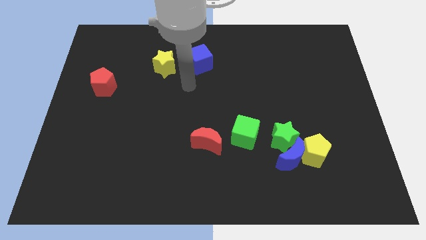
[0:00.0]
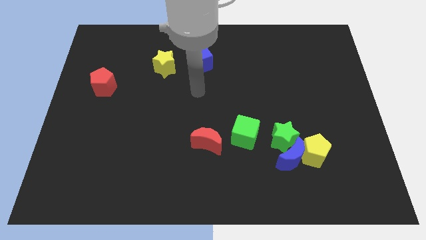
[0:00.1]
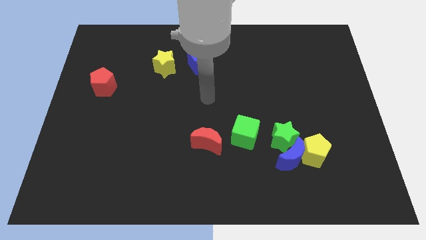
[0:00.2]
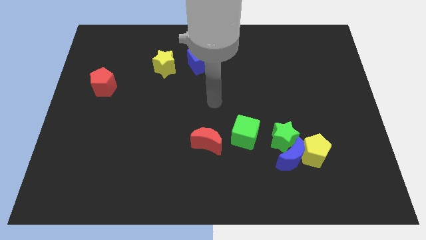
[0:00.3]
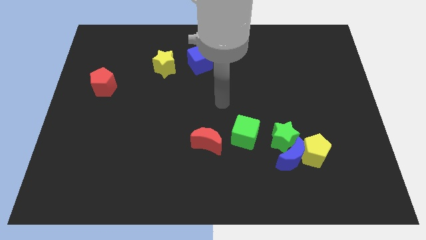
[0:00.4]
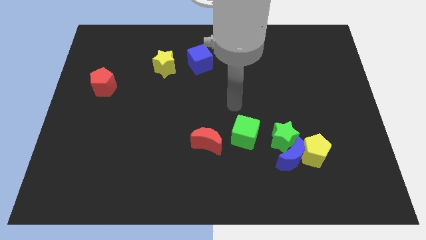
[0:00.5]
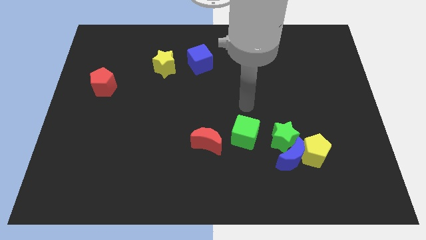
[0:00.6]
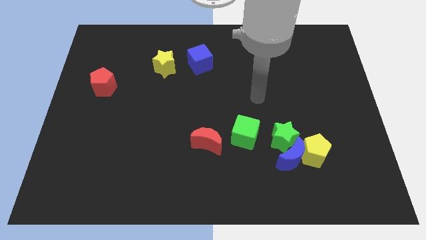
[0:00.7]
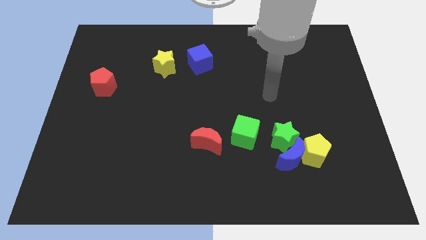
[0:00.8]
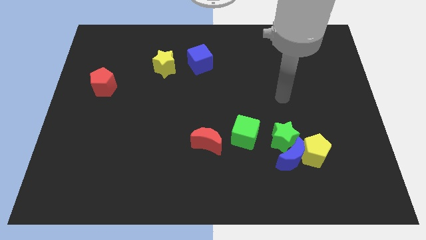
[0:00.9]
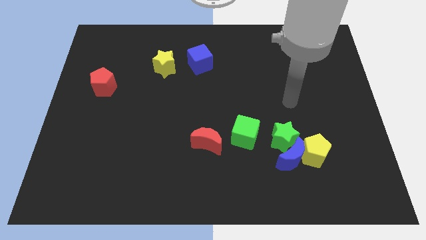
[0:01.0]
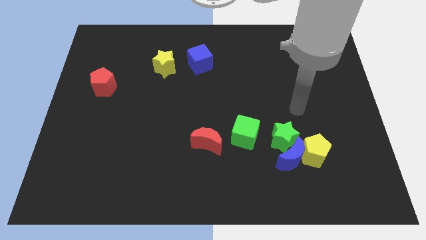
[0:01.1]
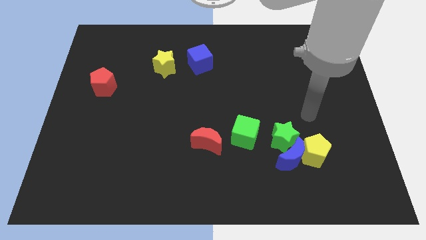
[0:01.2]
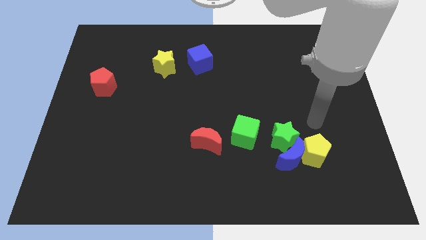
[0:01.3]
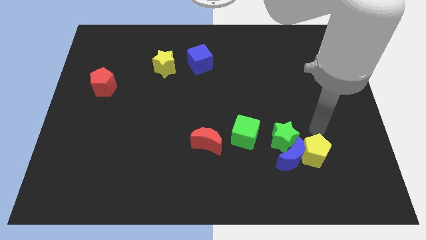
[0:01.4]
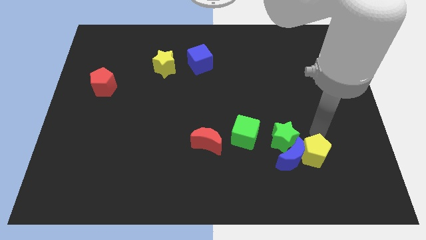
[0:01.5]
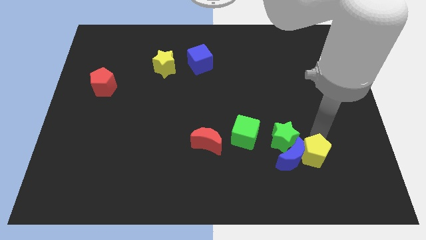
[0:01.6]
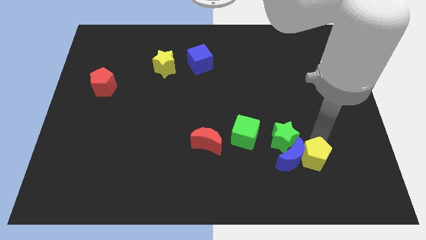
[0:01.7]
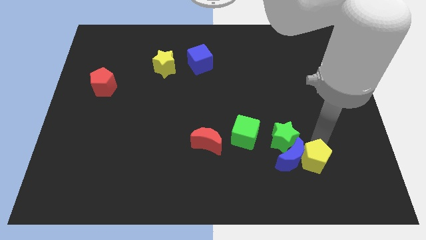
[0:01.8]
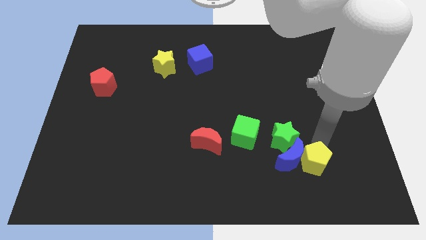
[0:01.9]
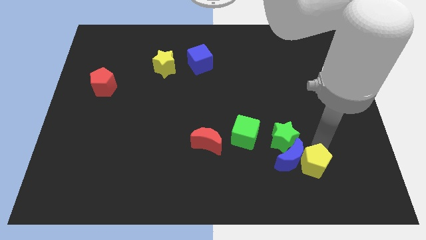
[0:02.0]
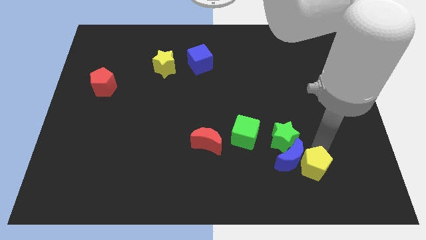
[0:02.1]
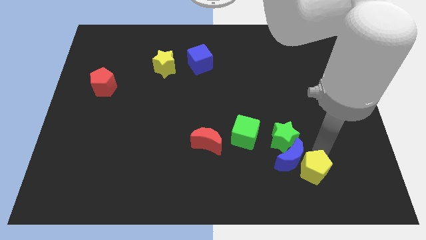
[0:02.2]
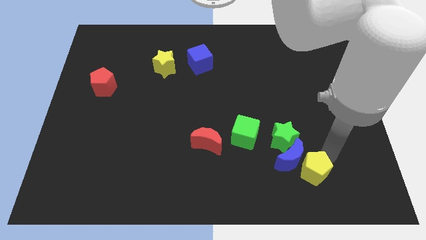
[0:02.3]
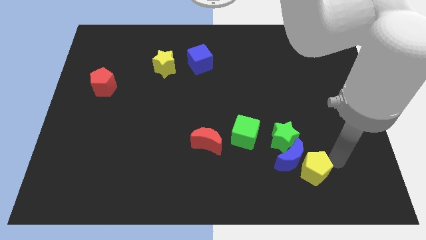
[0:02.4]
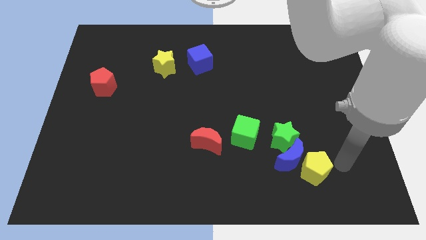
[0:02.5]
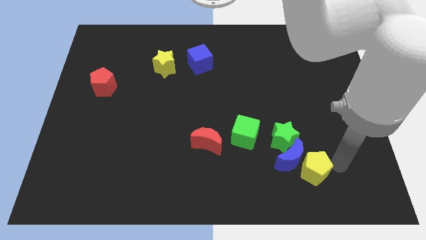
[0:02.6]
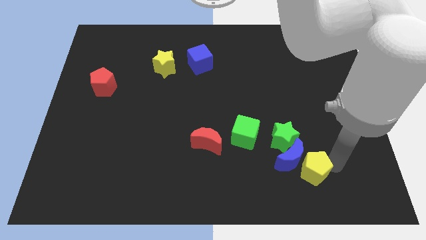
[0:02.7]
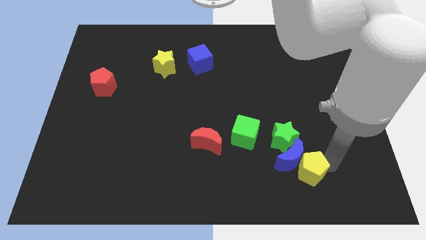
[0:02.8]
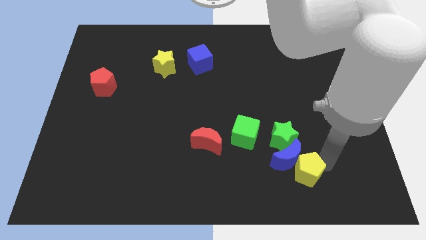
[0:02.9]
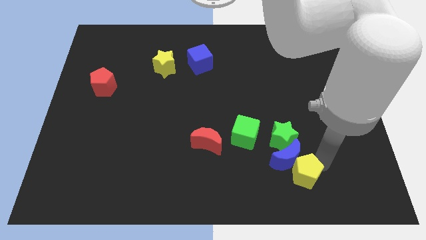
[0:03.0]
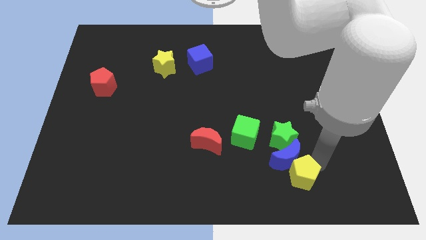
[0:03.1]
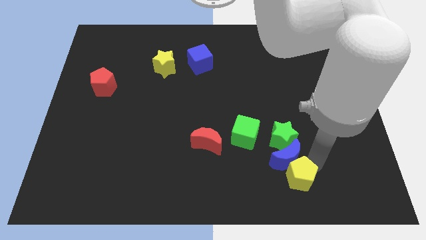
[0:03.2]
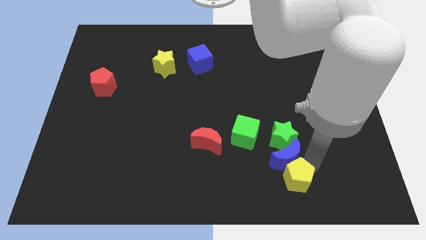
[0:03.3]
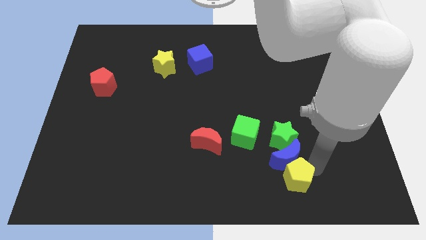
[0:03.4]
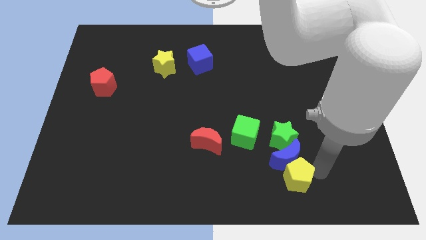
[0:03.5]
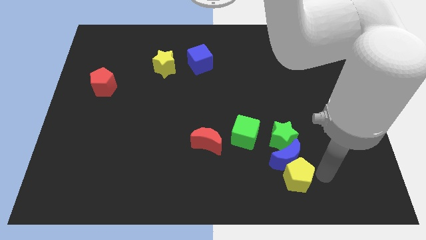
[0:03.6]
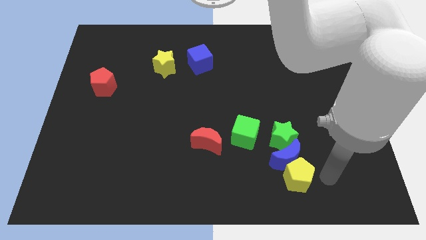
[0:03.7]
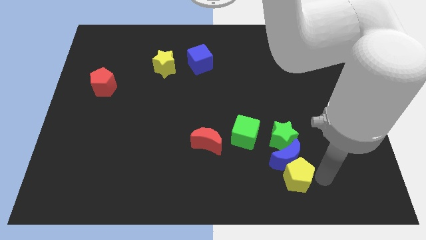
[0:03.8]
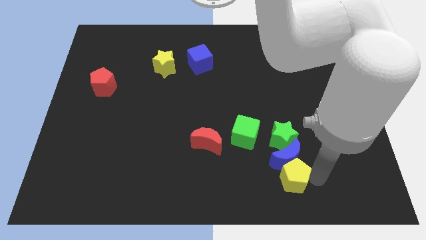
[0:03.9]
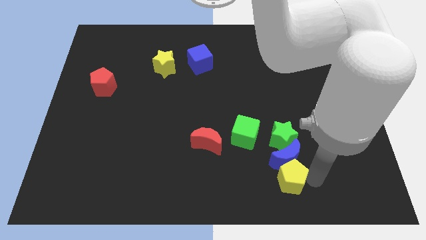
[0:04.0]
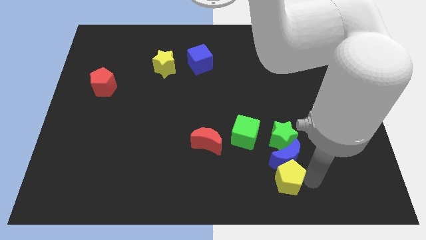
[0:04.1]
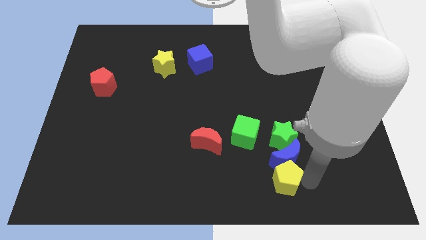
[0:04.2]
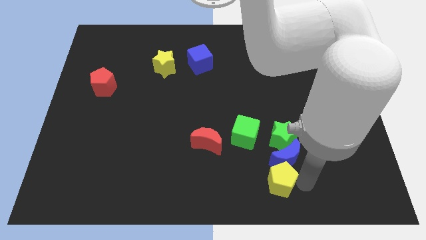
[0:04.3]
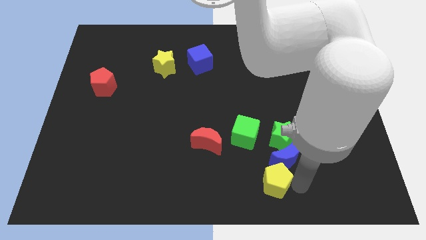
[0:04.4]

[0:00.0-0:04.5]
move the yellow pentagon slightly to the left

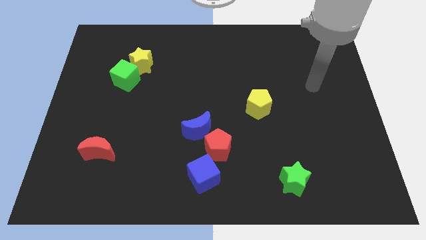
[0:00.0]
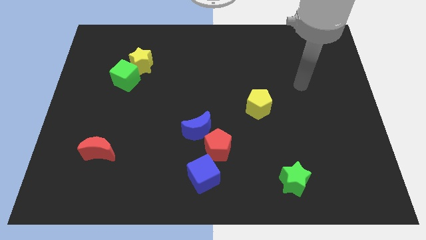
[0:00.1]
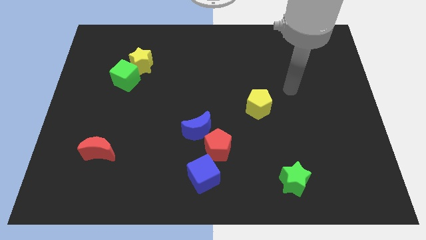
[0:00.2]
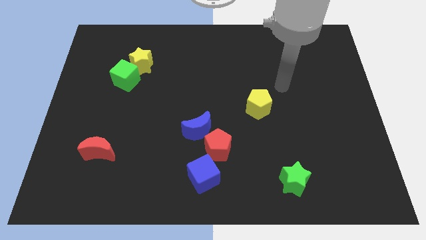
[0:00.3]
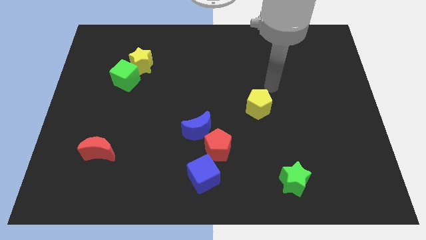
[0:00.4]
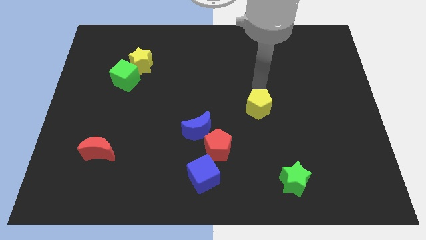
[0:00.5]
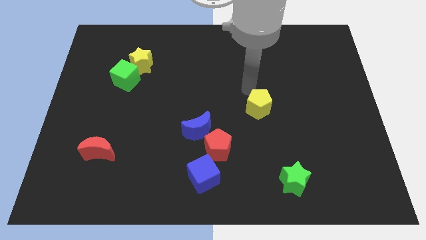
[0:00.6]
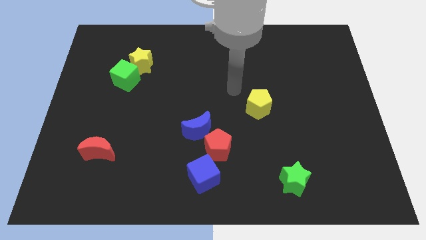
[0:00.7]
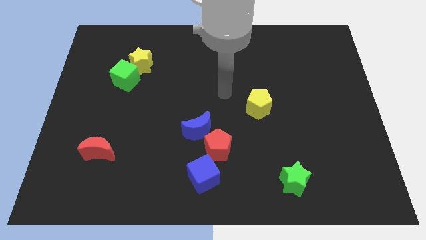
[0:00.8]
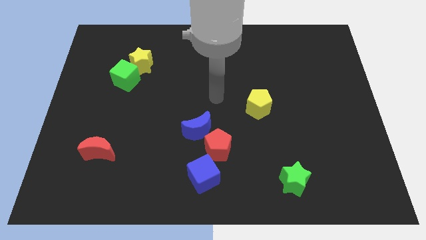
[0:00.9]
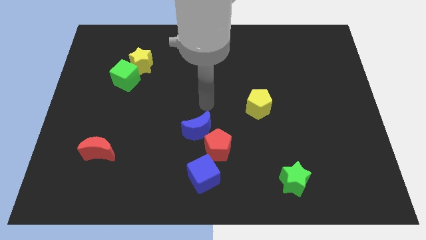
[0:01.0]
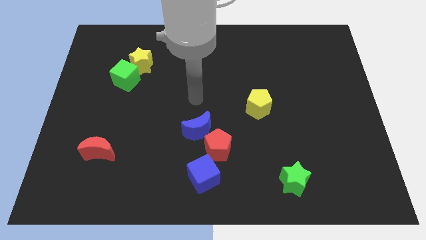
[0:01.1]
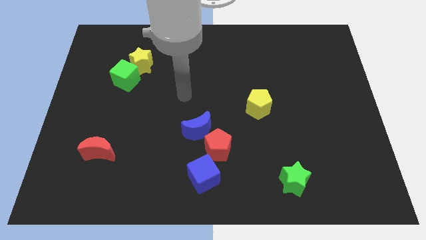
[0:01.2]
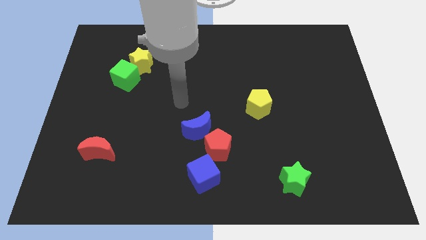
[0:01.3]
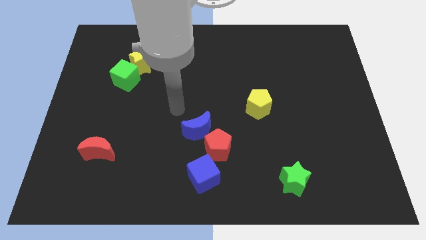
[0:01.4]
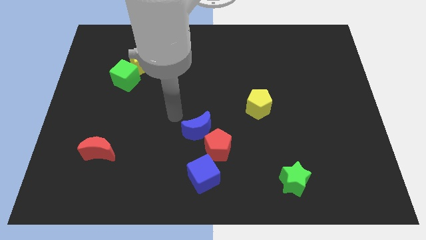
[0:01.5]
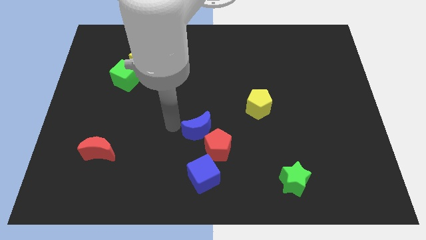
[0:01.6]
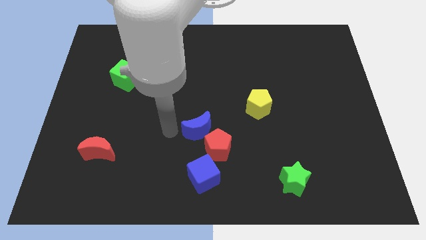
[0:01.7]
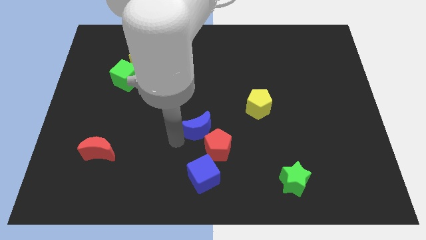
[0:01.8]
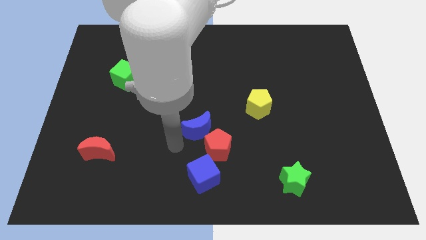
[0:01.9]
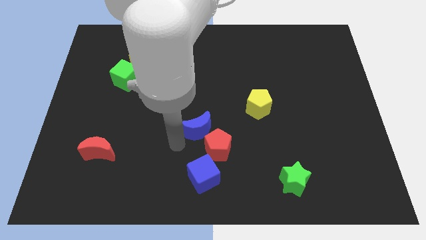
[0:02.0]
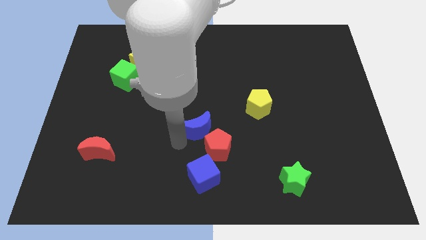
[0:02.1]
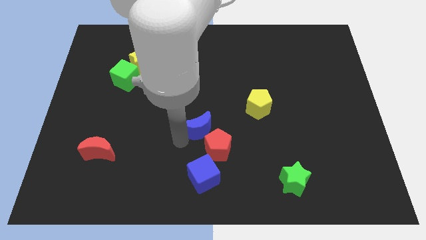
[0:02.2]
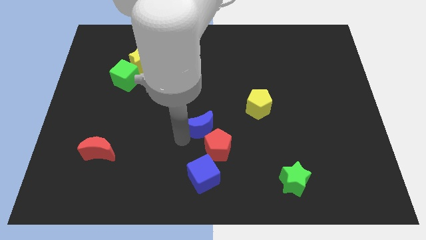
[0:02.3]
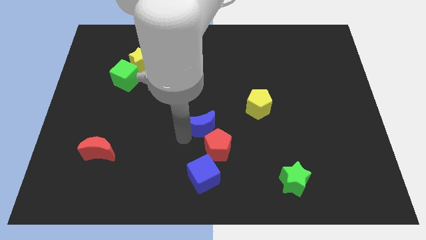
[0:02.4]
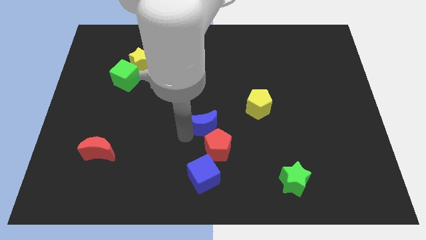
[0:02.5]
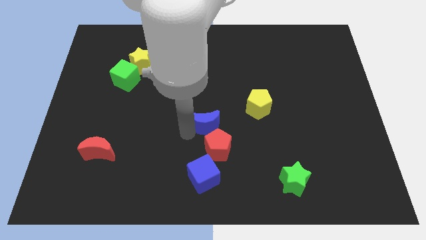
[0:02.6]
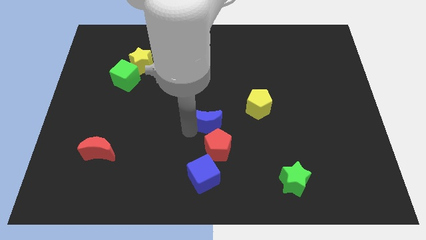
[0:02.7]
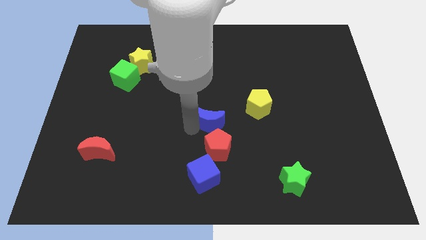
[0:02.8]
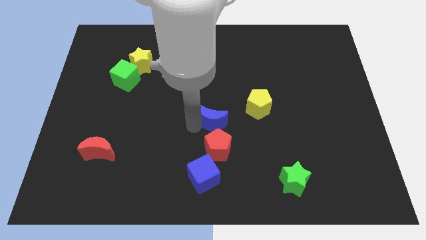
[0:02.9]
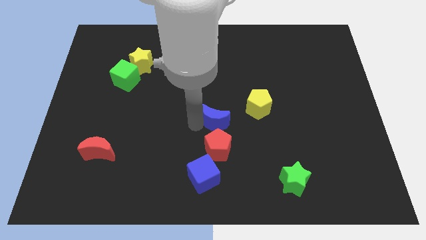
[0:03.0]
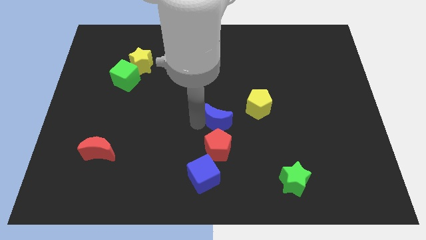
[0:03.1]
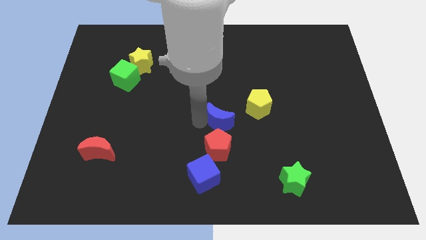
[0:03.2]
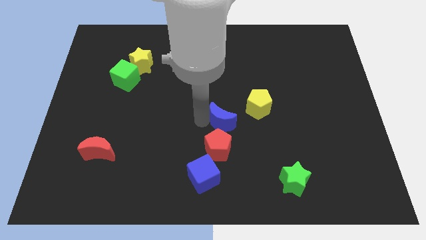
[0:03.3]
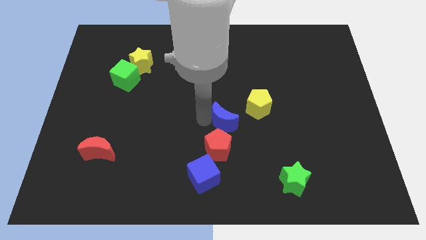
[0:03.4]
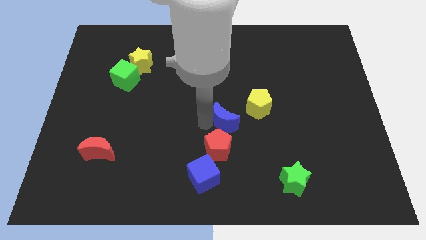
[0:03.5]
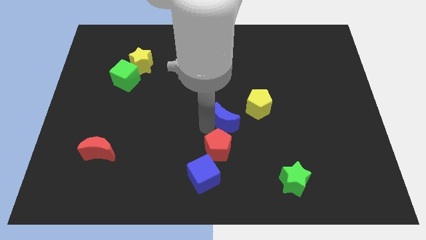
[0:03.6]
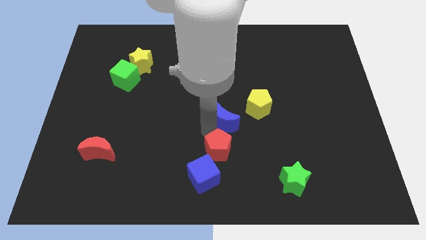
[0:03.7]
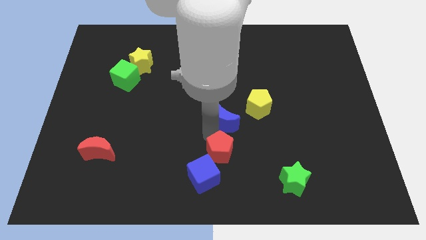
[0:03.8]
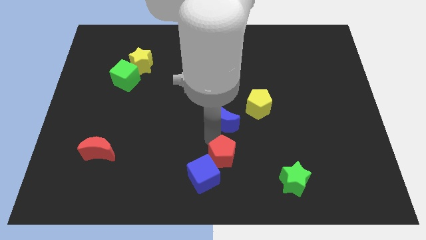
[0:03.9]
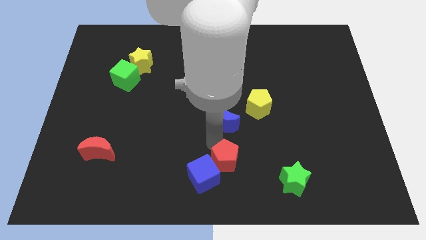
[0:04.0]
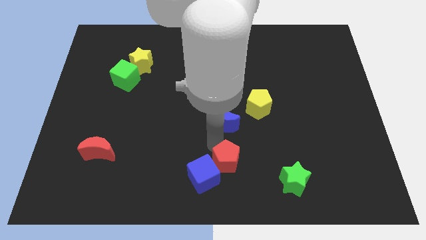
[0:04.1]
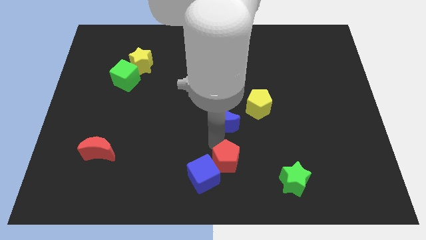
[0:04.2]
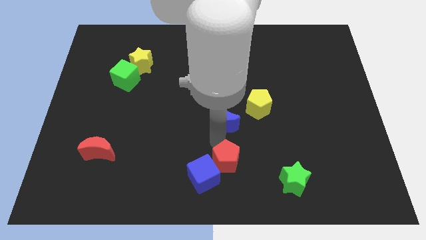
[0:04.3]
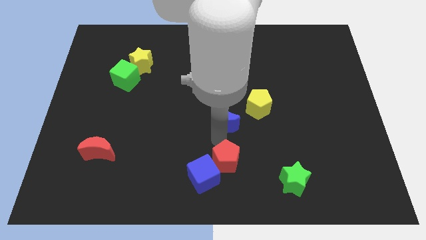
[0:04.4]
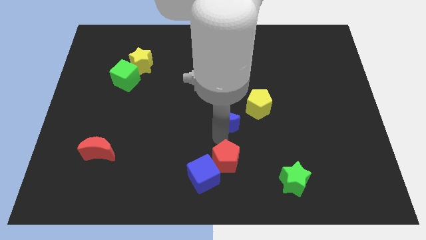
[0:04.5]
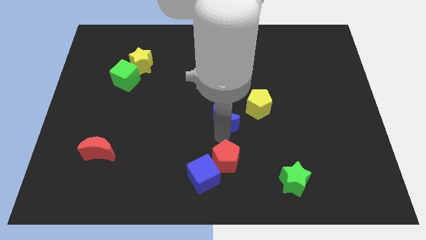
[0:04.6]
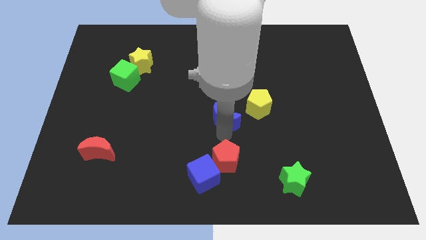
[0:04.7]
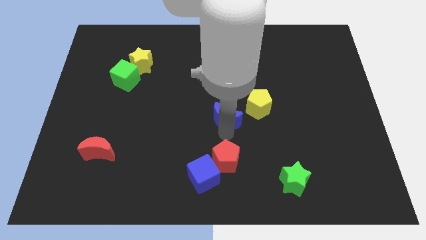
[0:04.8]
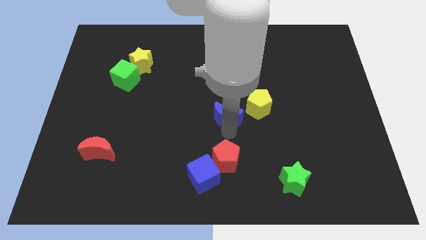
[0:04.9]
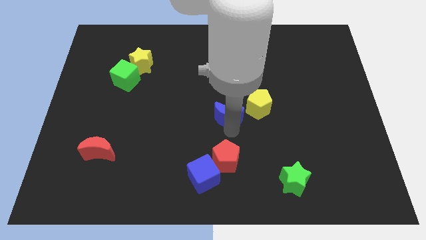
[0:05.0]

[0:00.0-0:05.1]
push the blue moon slightly upwards and then to the right
